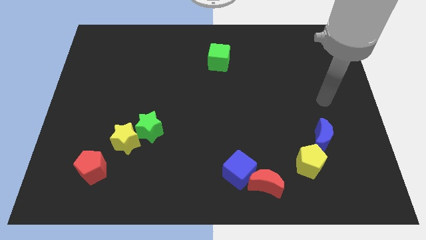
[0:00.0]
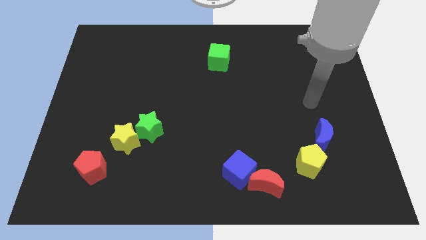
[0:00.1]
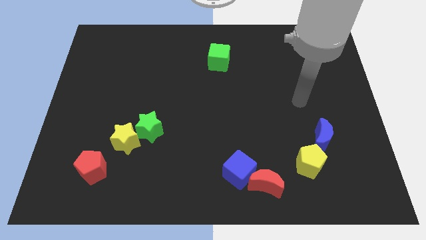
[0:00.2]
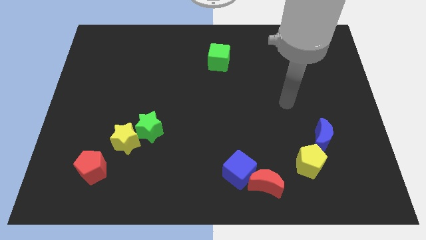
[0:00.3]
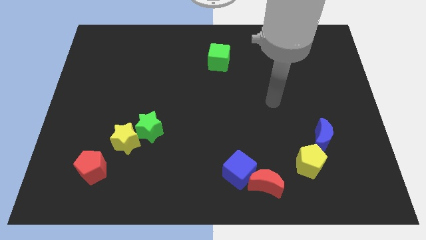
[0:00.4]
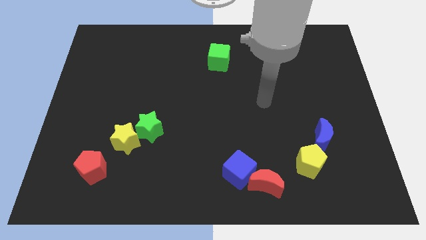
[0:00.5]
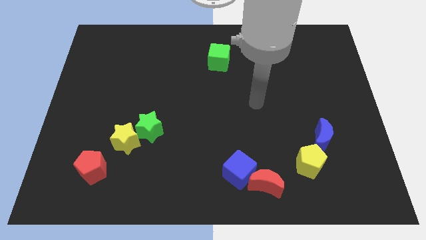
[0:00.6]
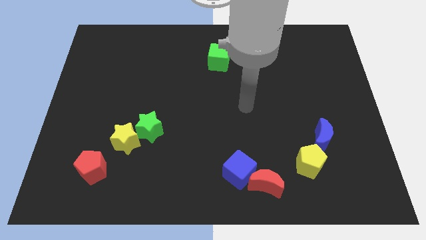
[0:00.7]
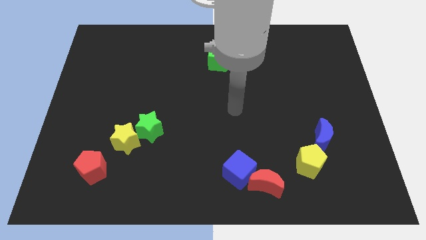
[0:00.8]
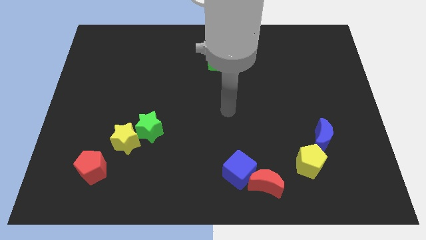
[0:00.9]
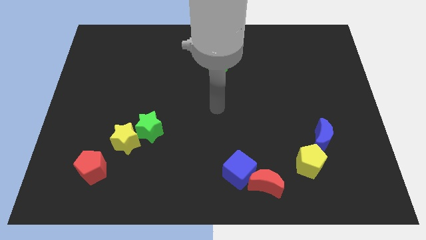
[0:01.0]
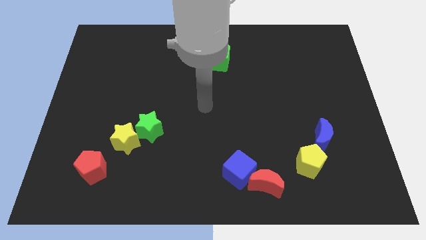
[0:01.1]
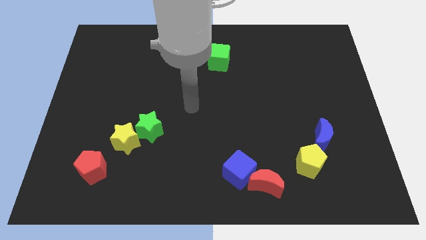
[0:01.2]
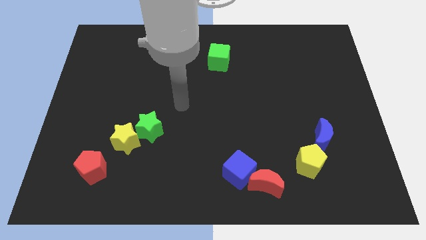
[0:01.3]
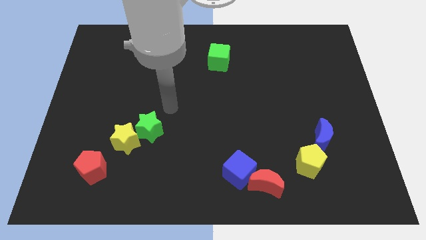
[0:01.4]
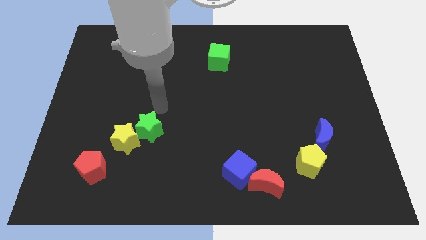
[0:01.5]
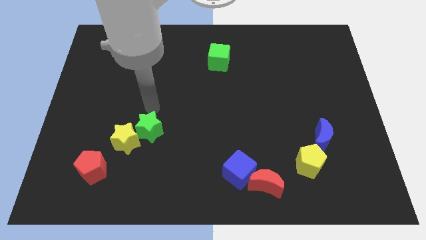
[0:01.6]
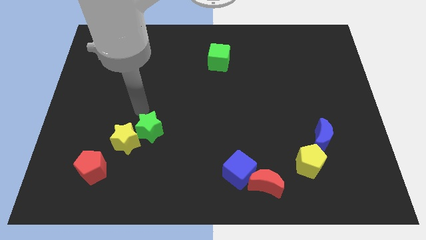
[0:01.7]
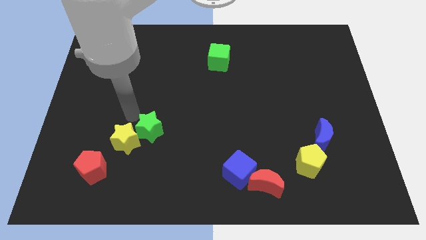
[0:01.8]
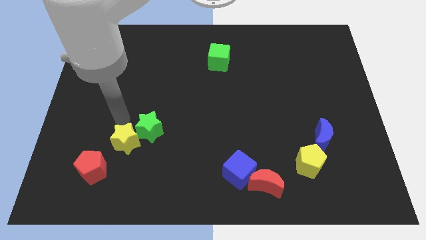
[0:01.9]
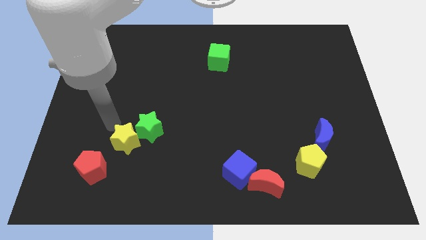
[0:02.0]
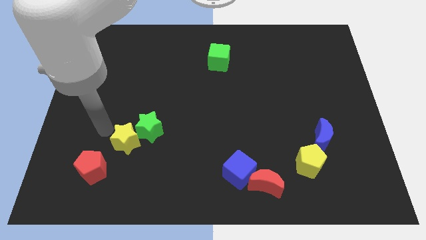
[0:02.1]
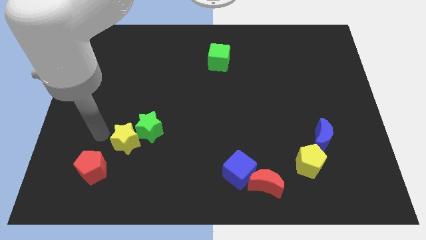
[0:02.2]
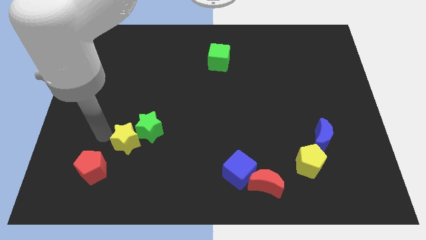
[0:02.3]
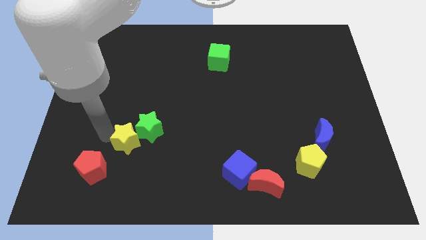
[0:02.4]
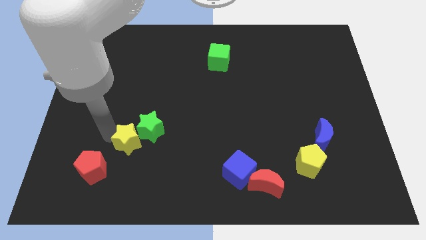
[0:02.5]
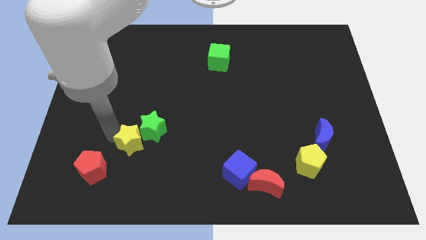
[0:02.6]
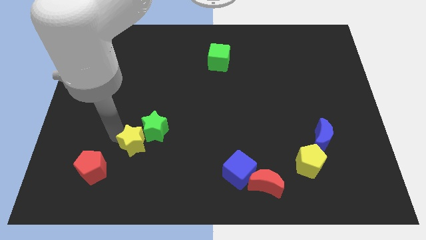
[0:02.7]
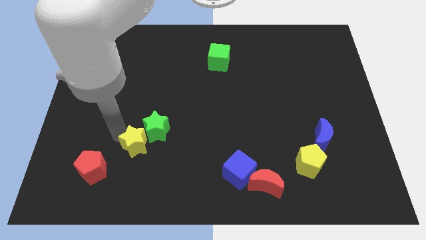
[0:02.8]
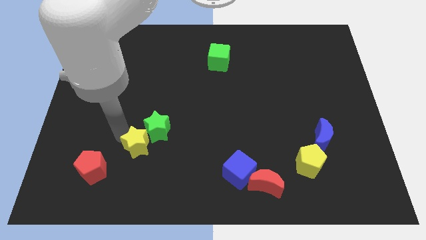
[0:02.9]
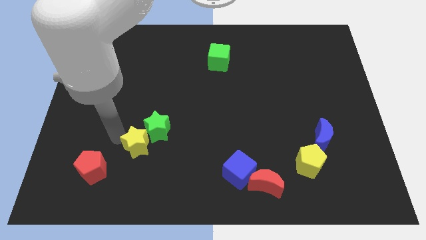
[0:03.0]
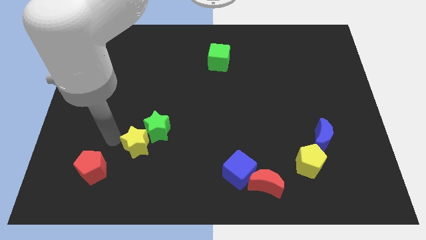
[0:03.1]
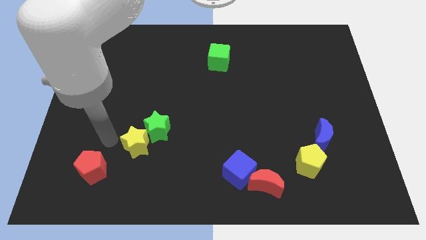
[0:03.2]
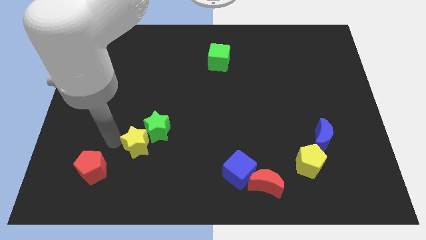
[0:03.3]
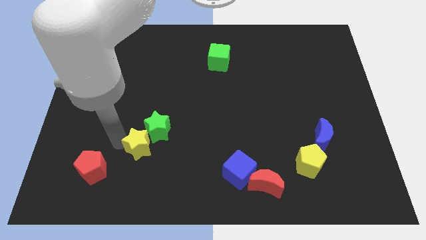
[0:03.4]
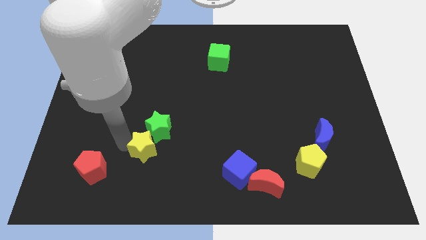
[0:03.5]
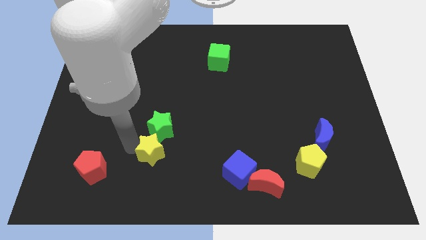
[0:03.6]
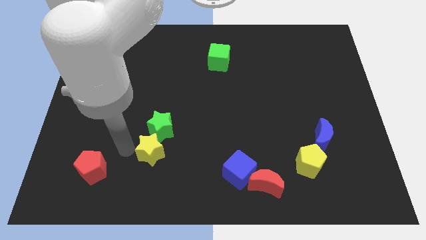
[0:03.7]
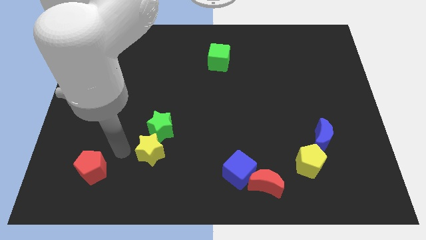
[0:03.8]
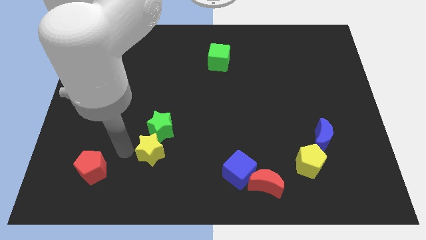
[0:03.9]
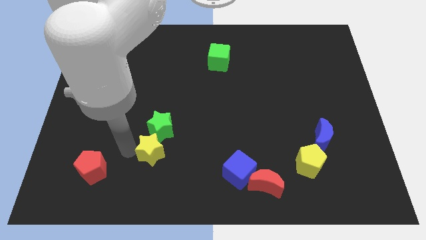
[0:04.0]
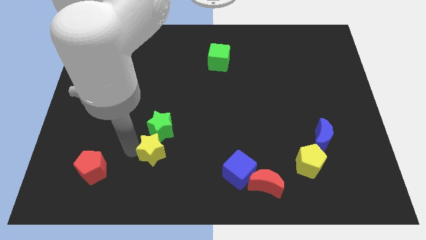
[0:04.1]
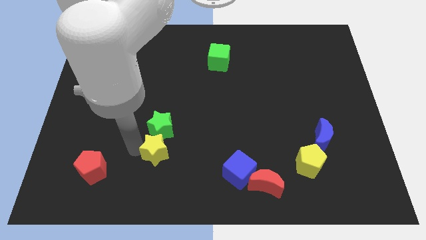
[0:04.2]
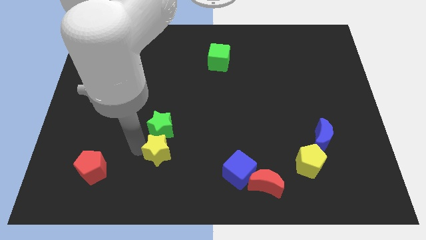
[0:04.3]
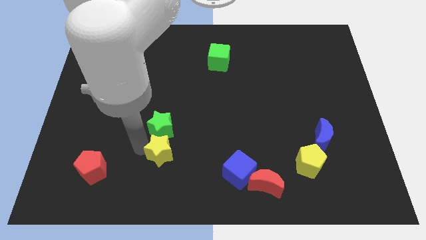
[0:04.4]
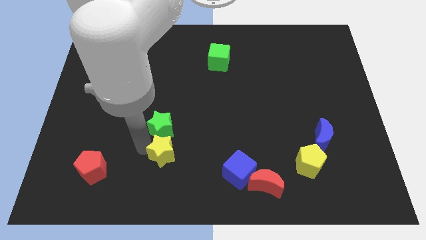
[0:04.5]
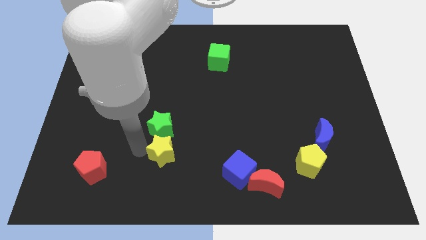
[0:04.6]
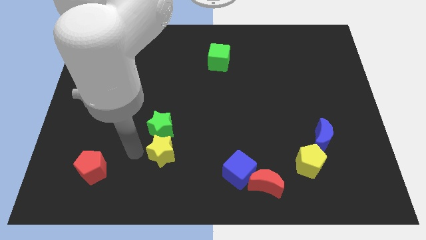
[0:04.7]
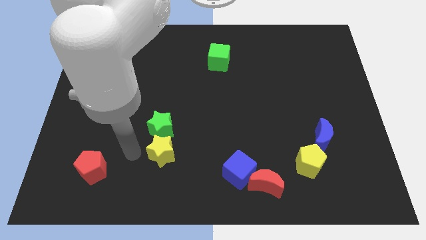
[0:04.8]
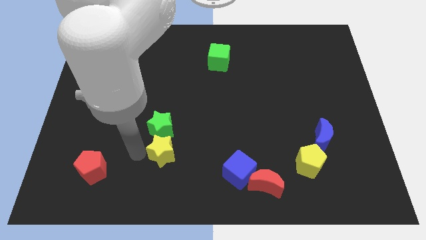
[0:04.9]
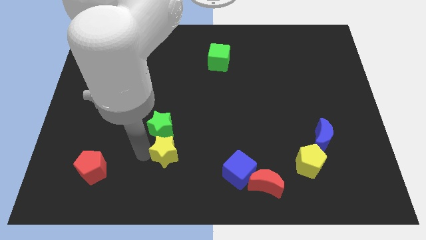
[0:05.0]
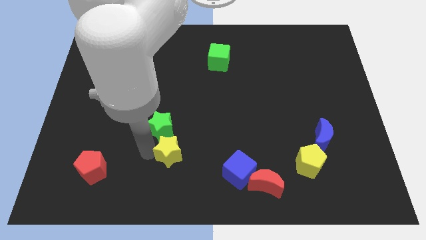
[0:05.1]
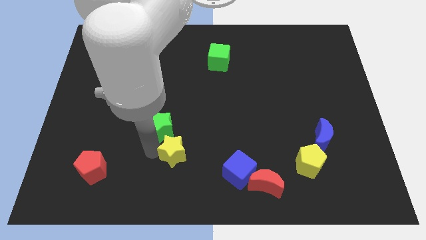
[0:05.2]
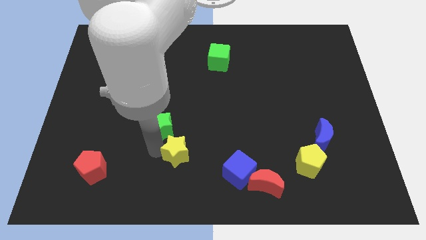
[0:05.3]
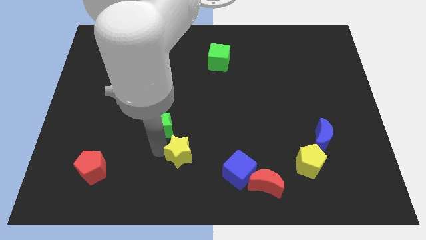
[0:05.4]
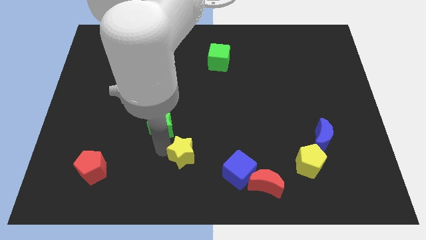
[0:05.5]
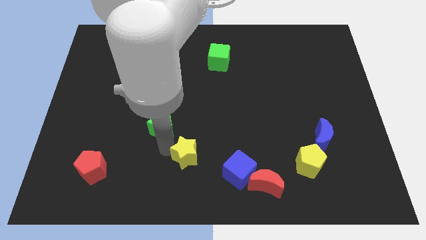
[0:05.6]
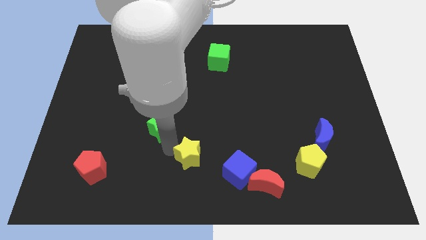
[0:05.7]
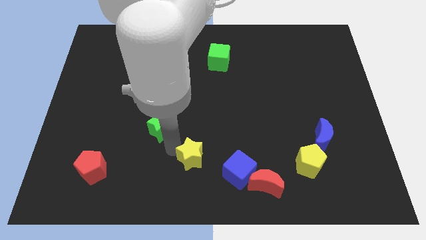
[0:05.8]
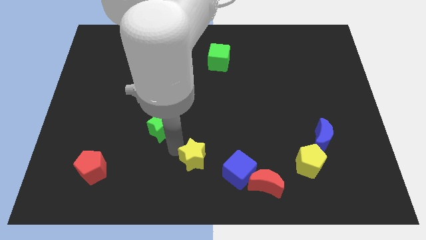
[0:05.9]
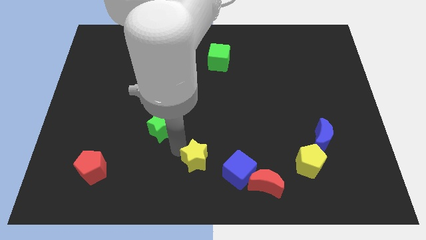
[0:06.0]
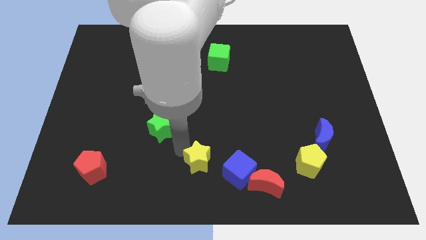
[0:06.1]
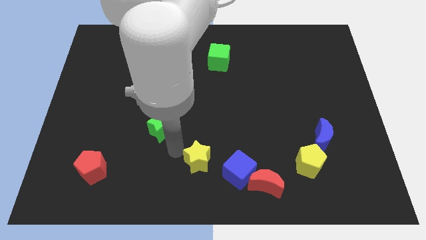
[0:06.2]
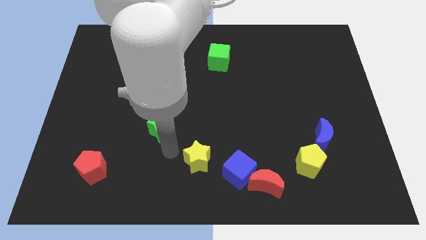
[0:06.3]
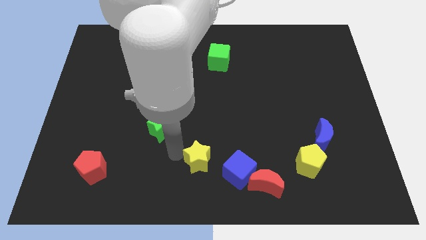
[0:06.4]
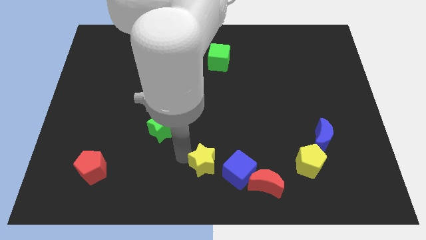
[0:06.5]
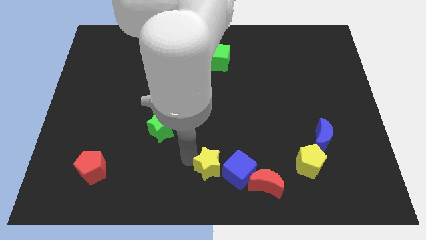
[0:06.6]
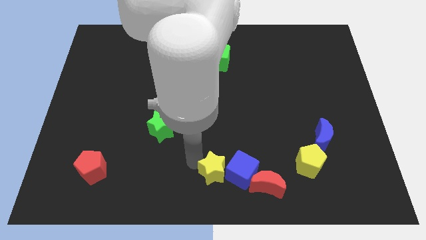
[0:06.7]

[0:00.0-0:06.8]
put the yellow star towards the blue cube

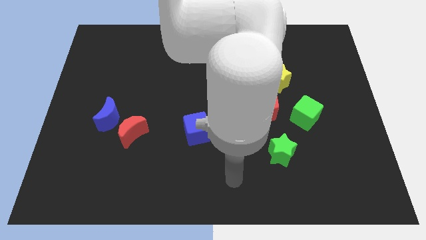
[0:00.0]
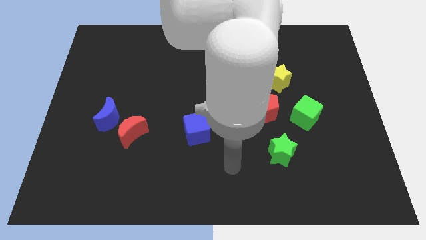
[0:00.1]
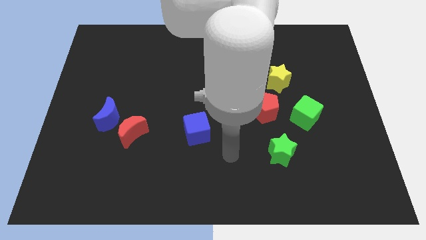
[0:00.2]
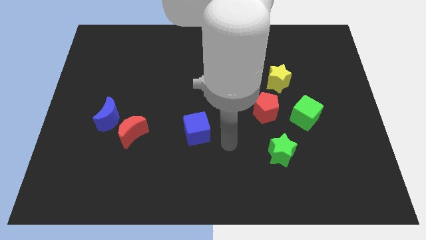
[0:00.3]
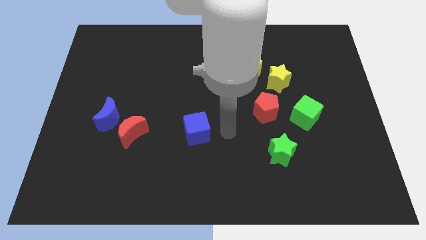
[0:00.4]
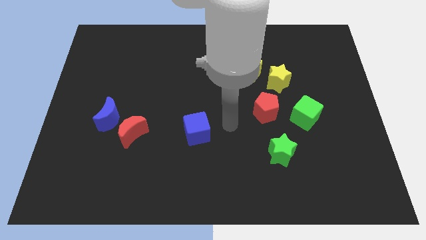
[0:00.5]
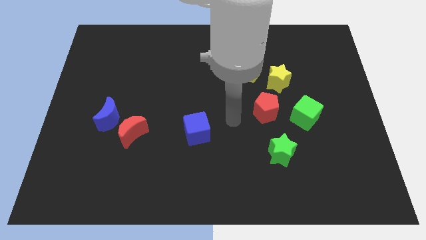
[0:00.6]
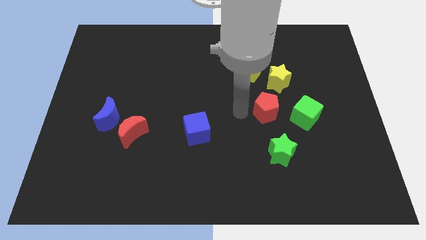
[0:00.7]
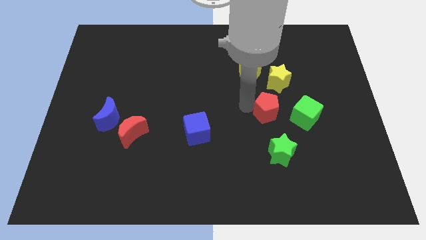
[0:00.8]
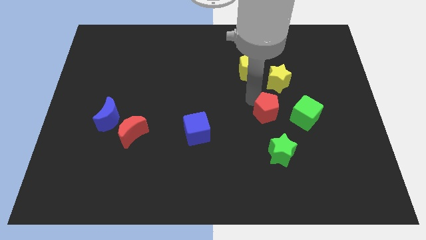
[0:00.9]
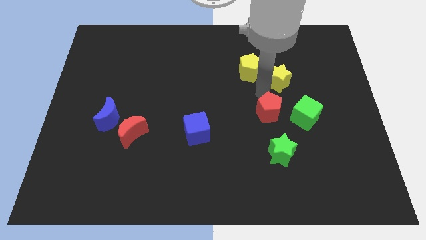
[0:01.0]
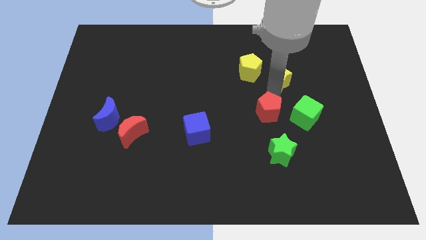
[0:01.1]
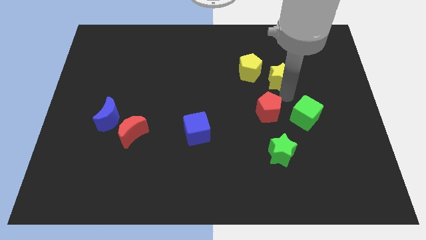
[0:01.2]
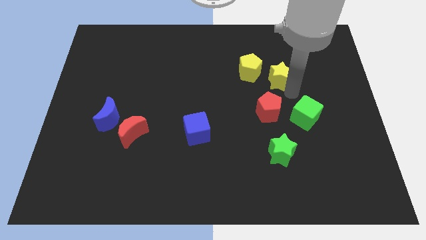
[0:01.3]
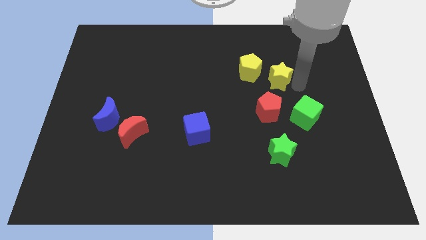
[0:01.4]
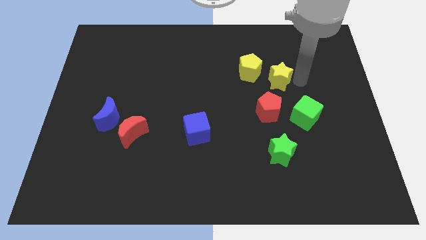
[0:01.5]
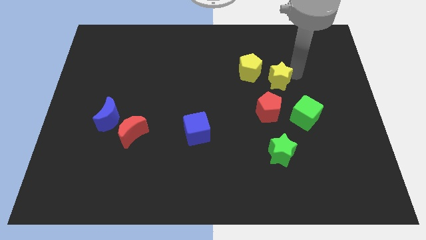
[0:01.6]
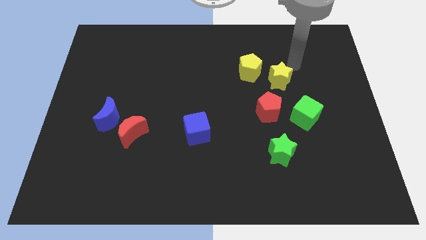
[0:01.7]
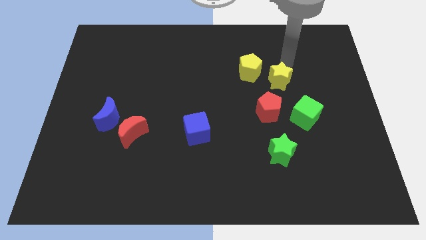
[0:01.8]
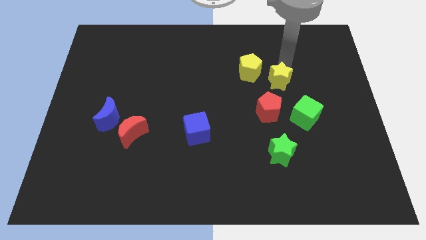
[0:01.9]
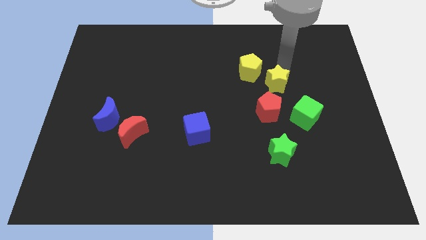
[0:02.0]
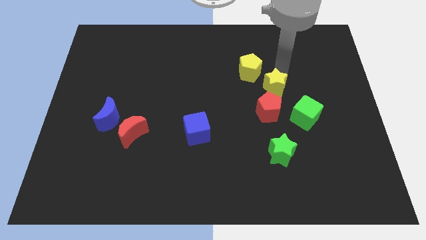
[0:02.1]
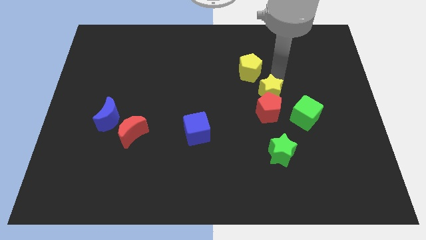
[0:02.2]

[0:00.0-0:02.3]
push the yellow star close to the red pentagon
